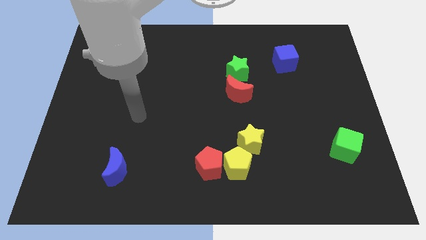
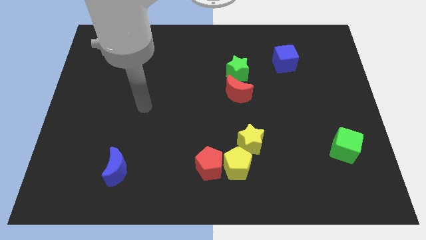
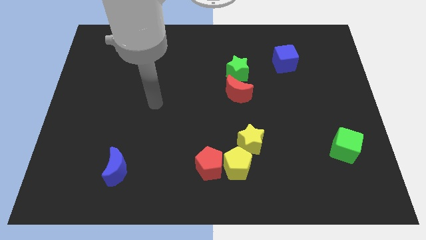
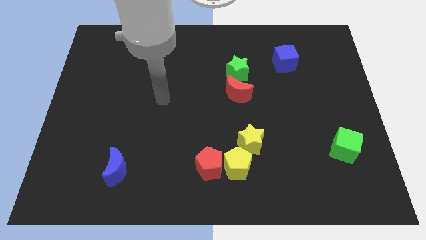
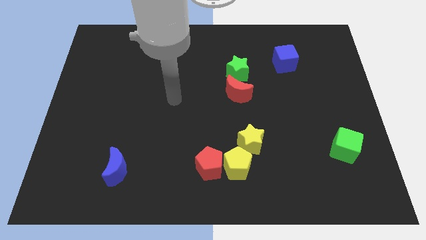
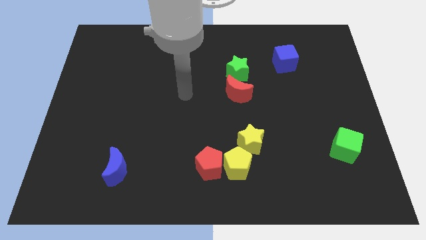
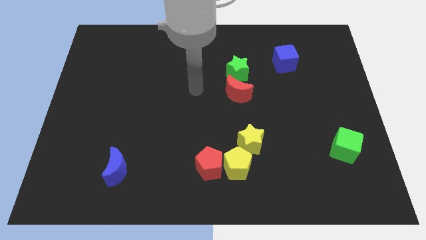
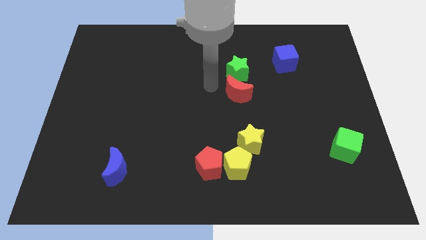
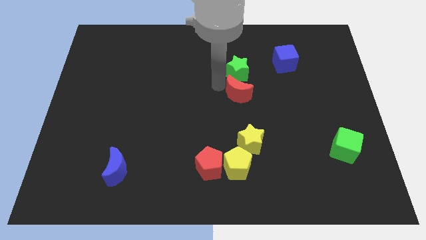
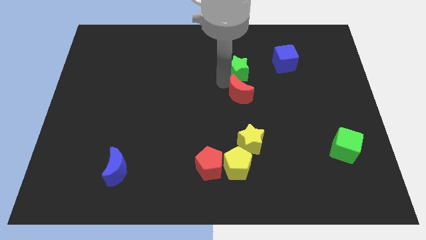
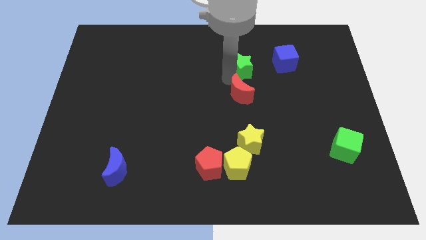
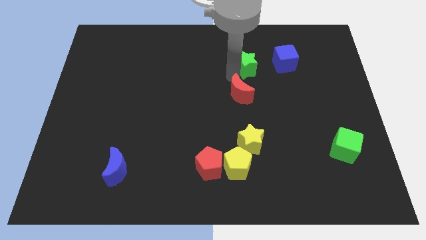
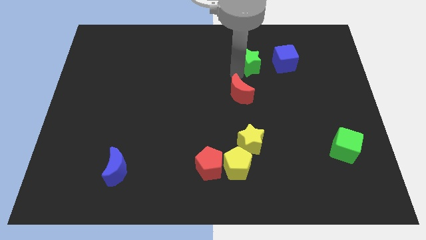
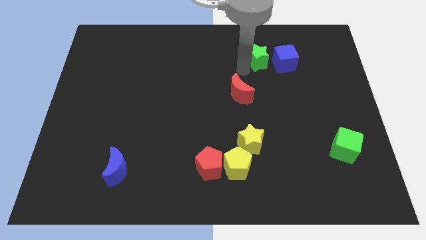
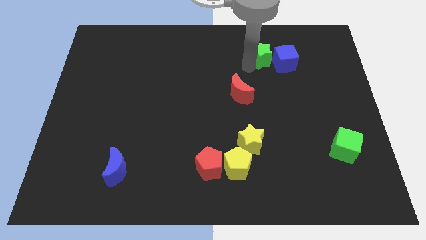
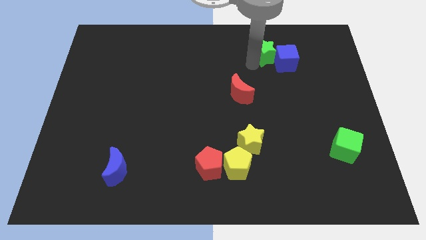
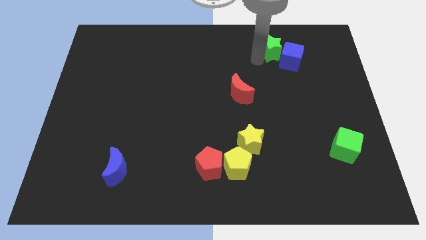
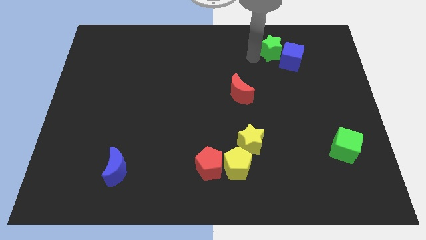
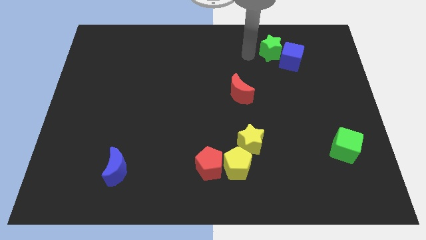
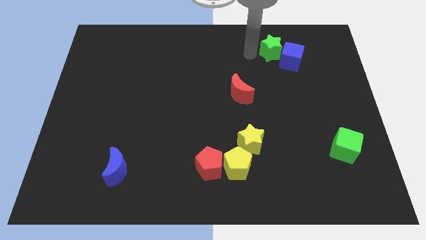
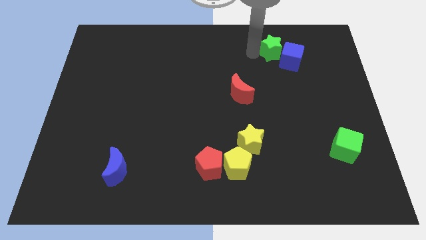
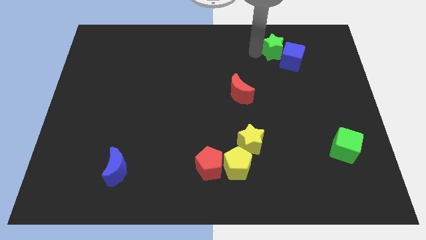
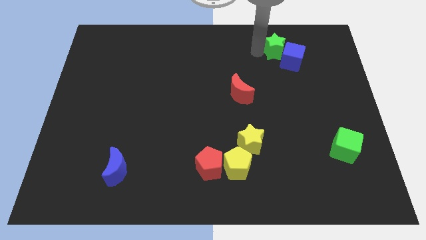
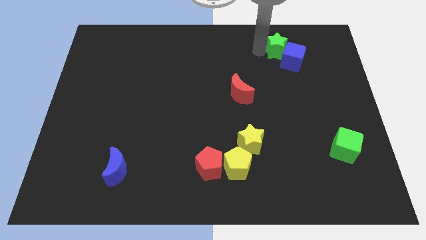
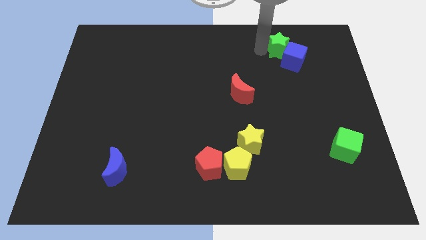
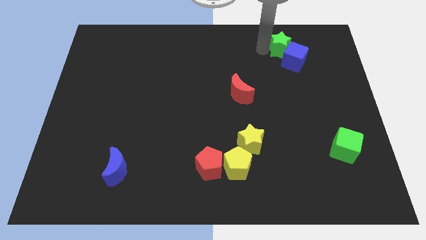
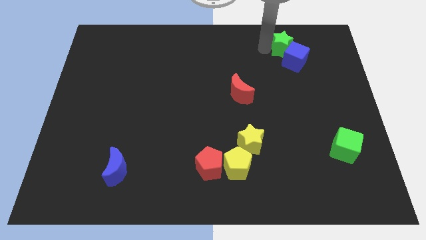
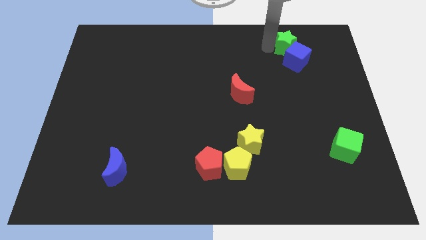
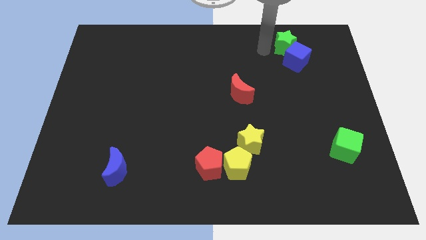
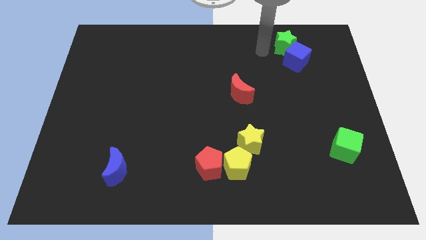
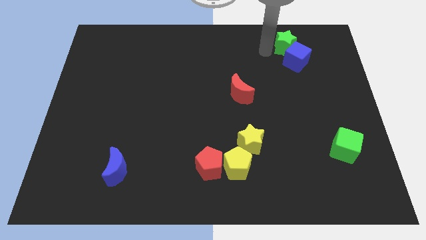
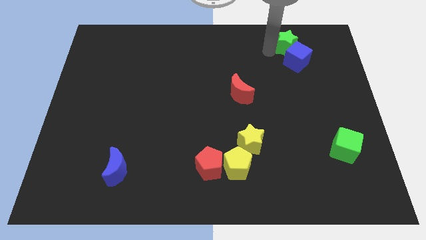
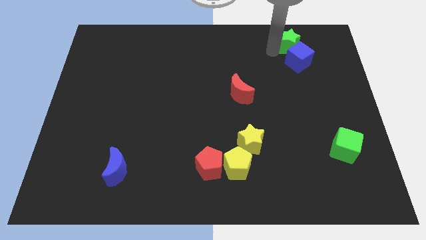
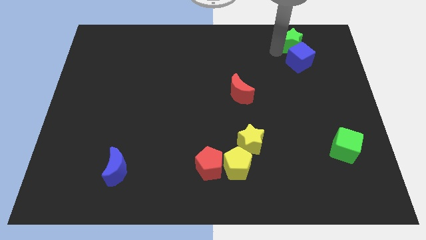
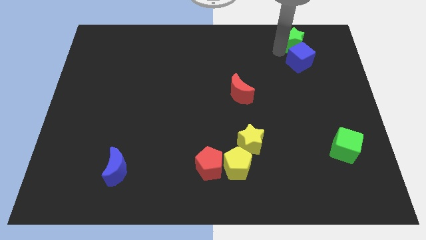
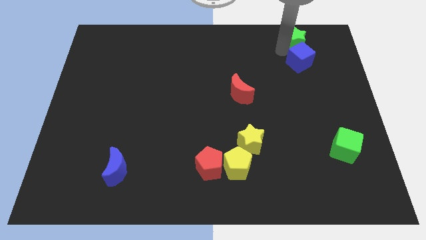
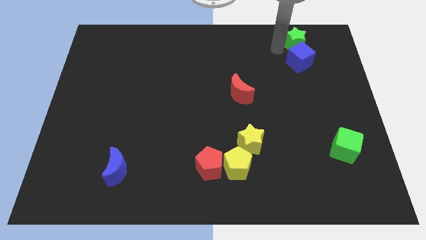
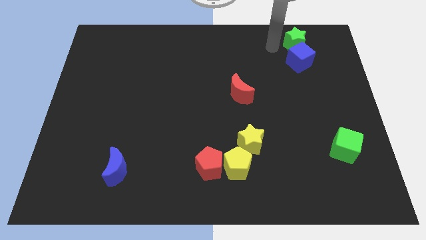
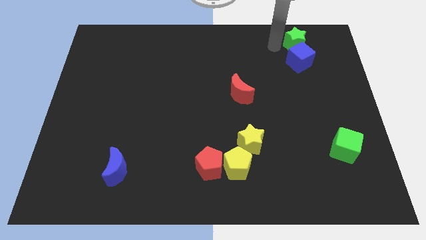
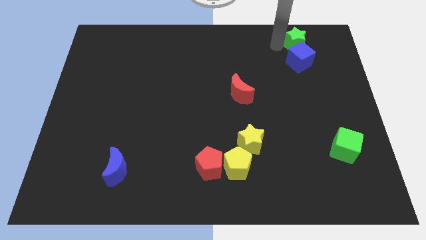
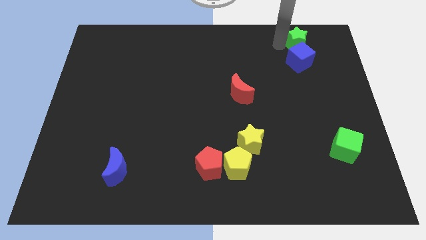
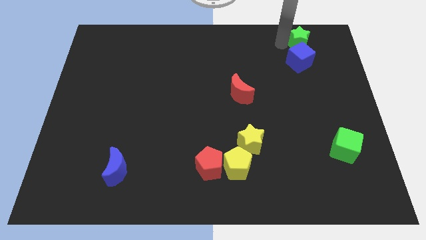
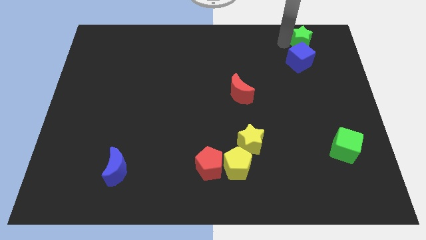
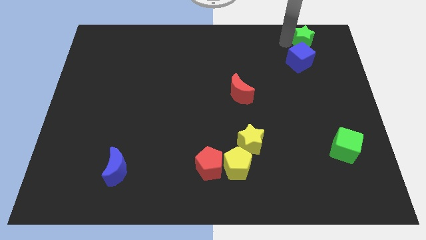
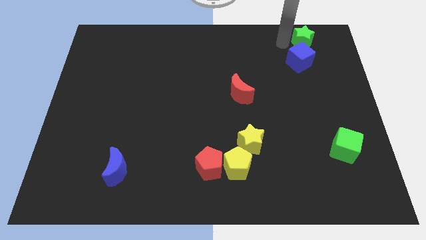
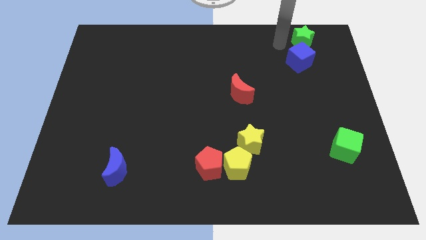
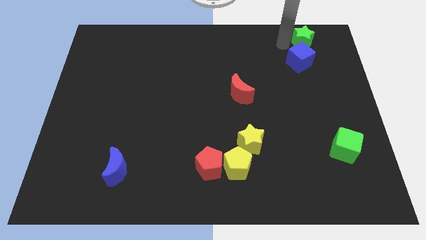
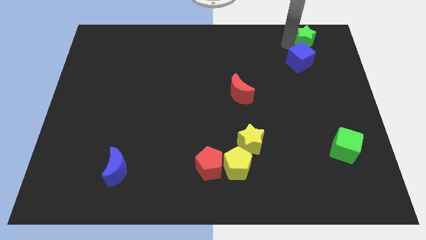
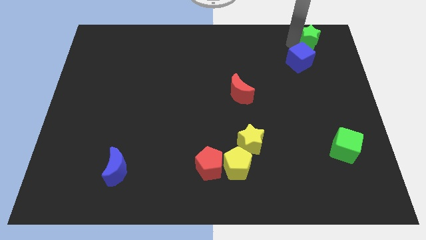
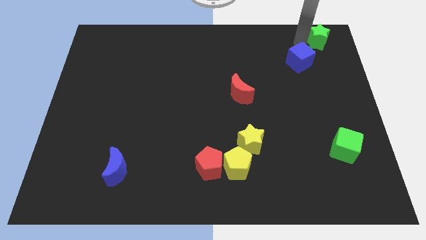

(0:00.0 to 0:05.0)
push the green star to the top right

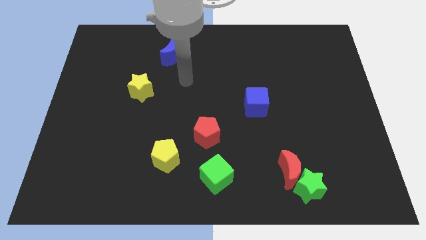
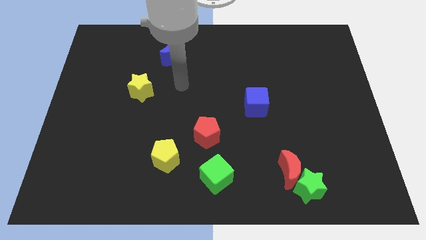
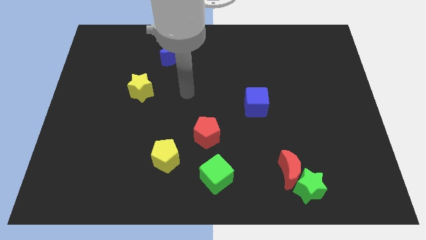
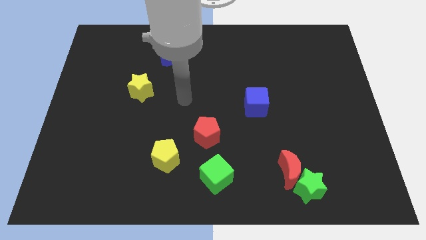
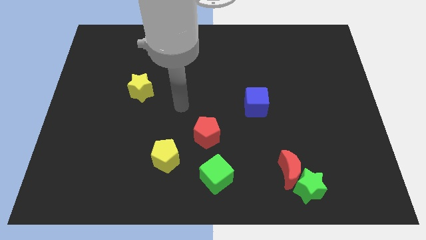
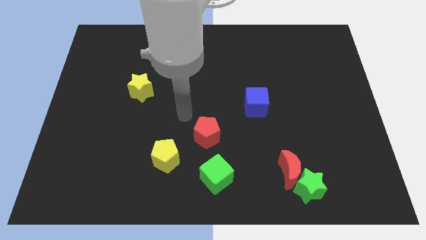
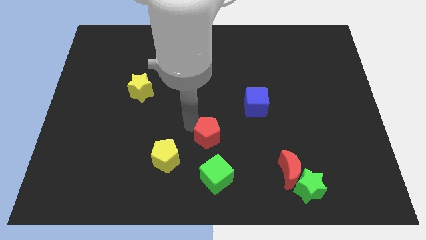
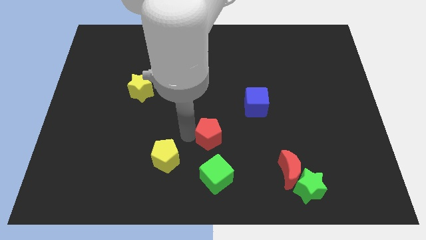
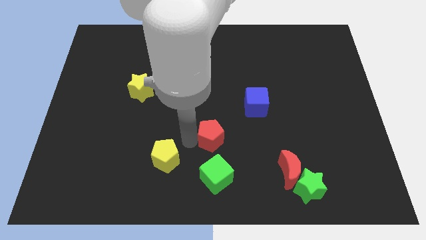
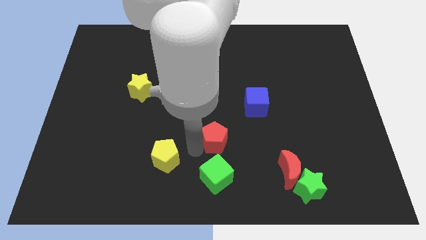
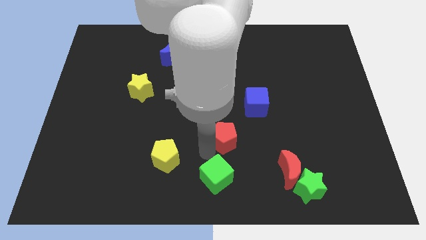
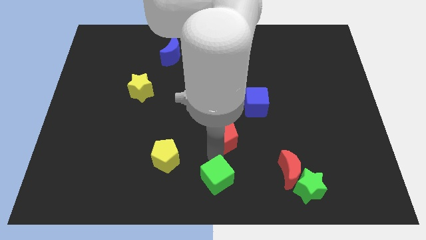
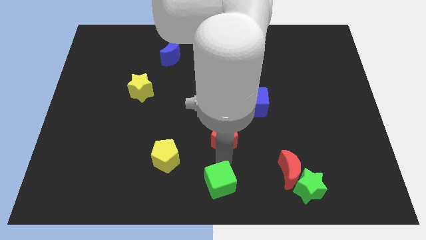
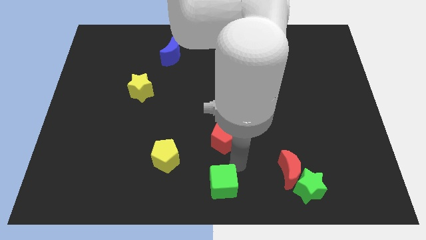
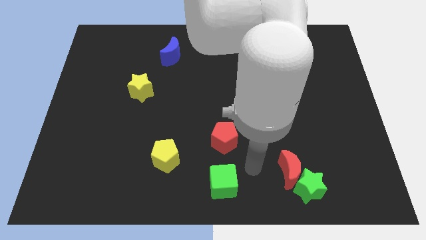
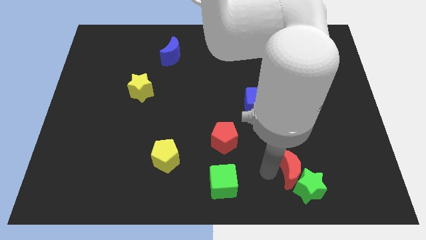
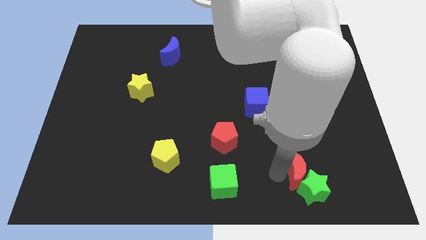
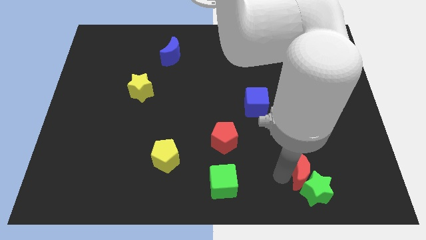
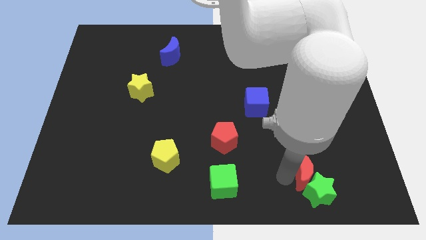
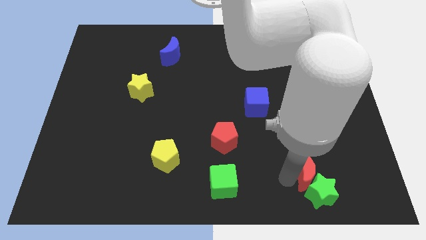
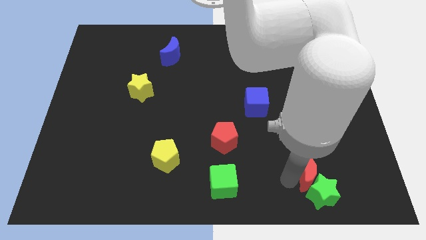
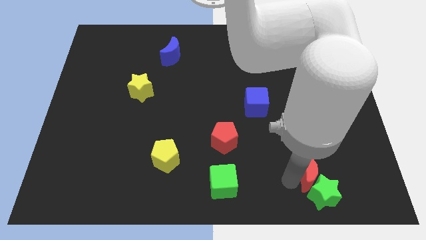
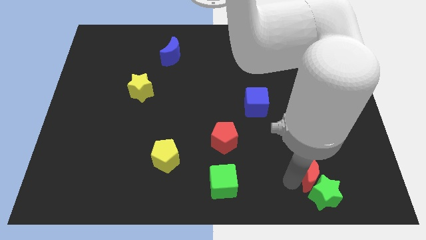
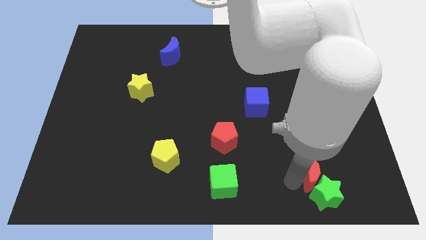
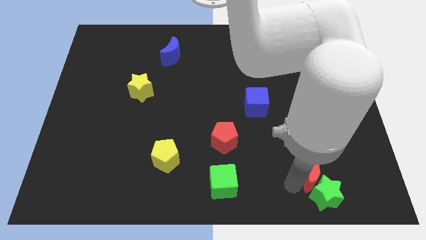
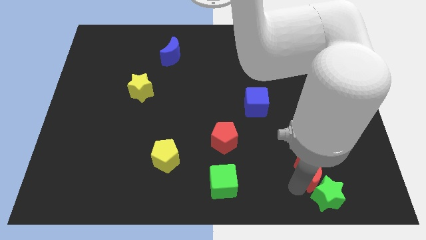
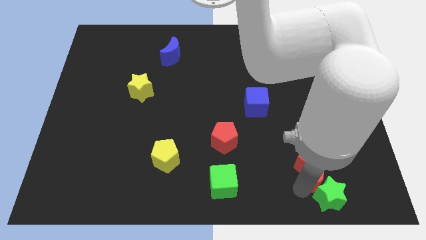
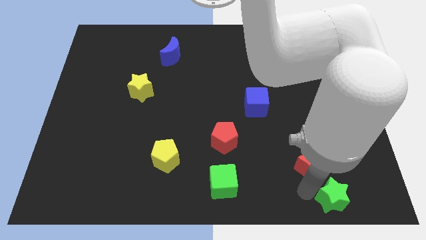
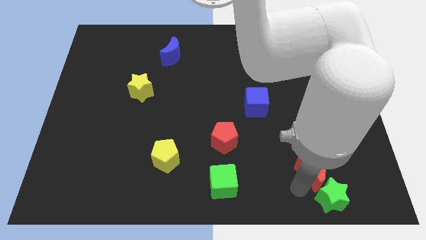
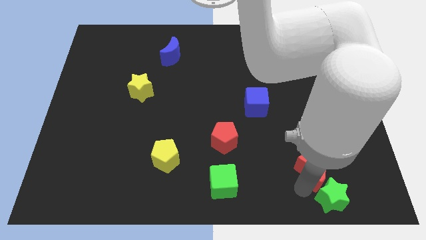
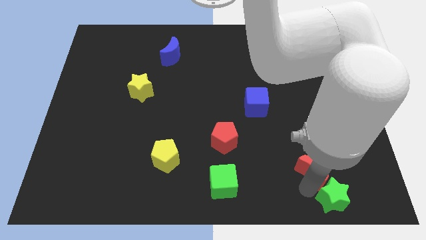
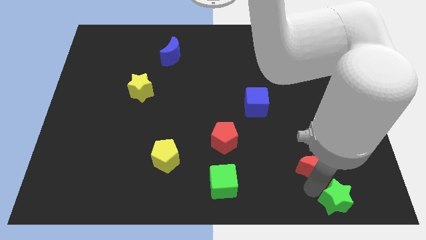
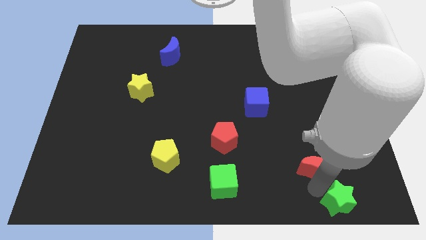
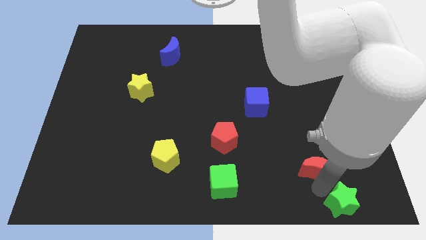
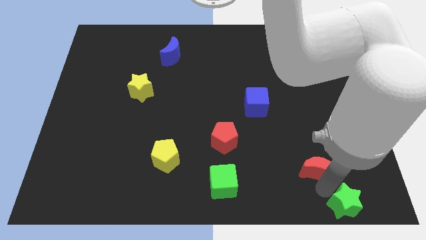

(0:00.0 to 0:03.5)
push the green star to the bottom right of the board
